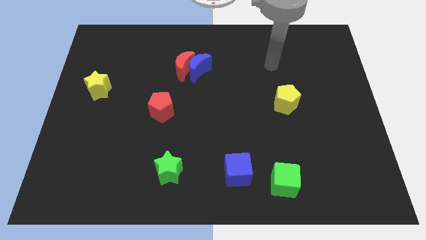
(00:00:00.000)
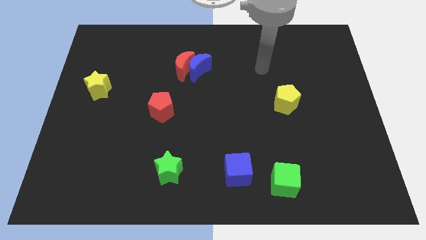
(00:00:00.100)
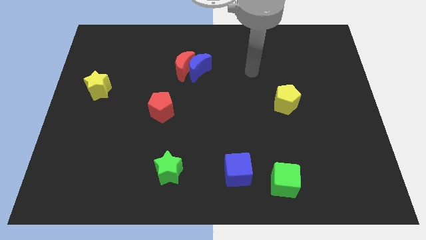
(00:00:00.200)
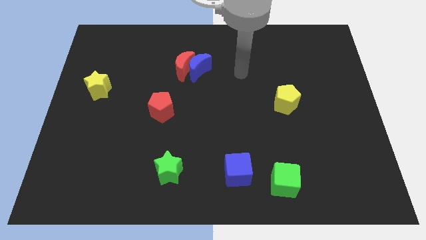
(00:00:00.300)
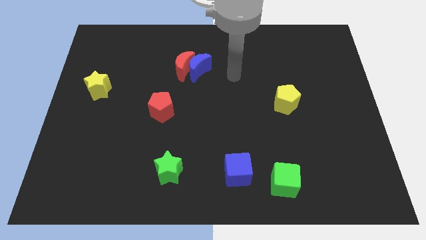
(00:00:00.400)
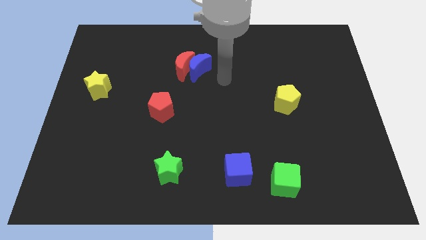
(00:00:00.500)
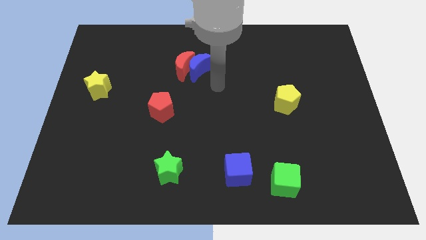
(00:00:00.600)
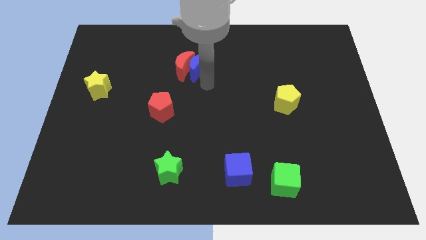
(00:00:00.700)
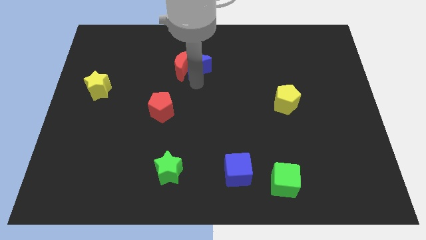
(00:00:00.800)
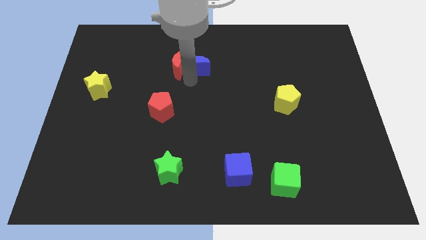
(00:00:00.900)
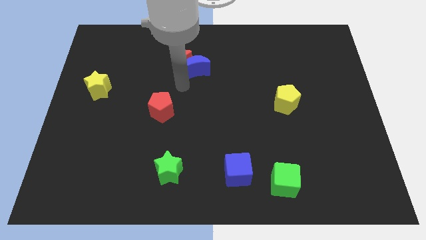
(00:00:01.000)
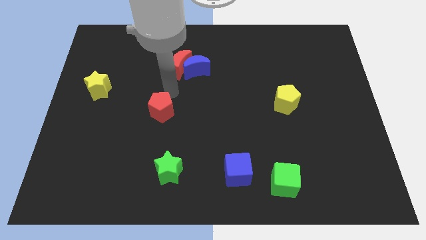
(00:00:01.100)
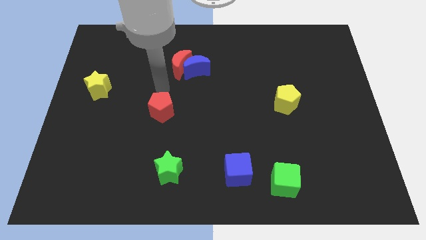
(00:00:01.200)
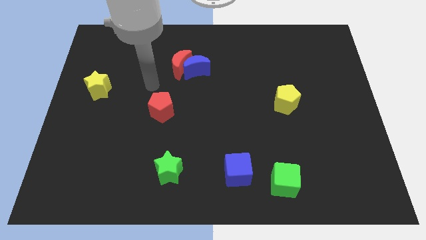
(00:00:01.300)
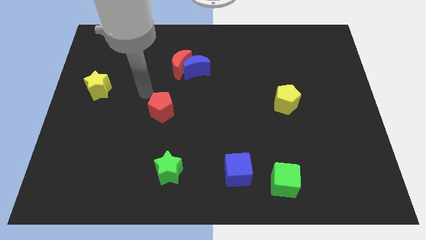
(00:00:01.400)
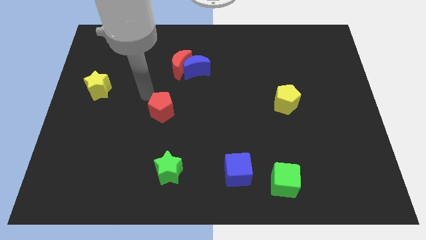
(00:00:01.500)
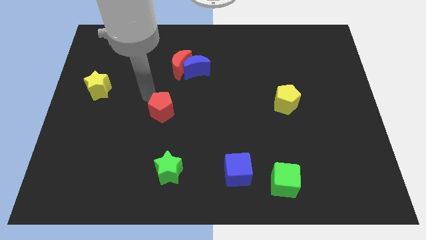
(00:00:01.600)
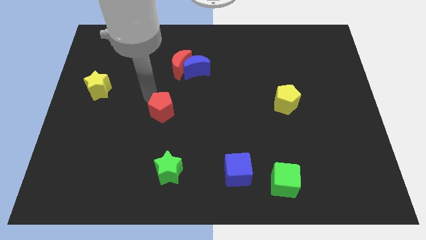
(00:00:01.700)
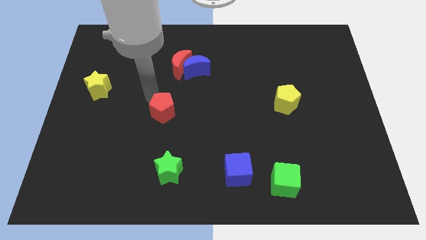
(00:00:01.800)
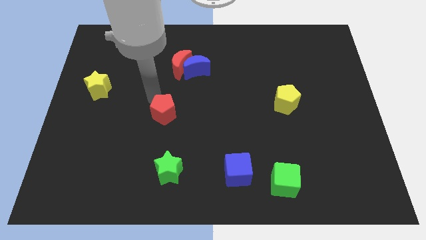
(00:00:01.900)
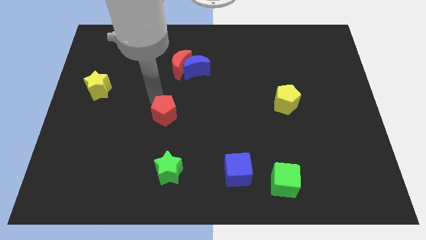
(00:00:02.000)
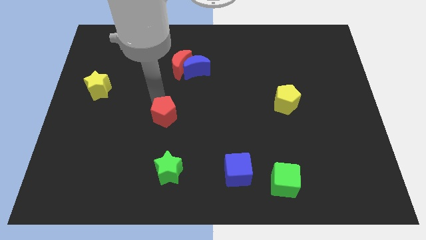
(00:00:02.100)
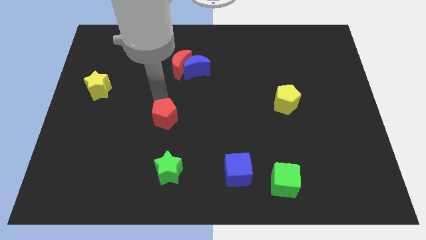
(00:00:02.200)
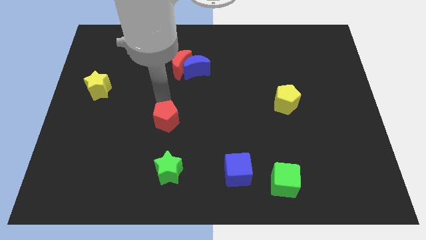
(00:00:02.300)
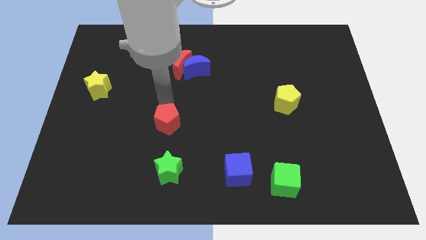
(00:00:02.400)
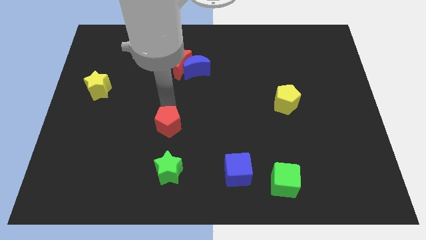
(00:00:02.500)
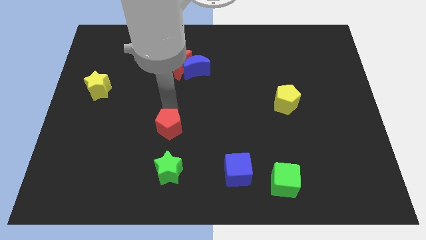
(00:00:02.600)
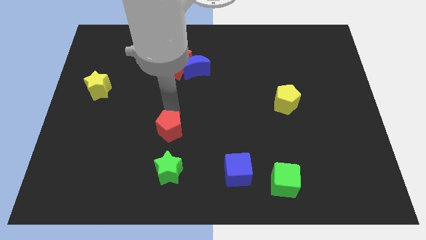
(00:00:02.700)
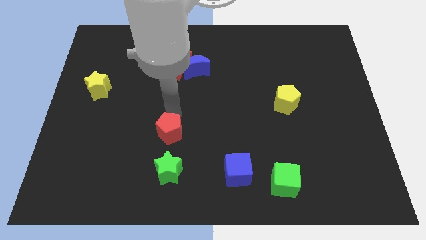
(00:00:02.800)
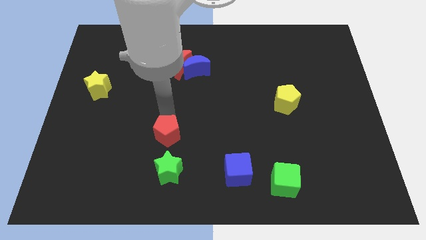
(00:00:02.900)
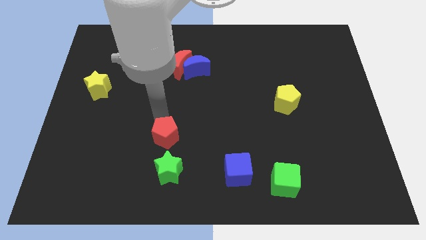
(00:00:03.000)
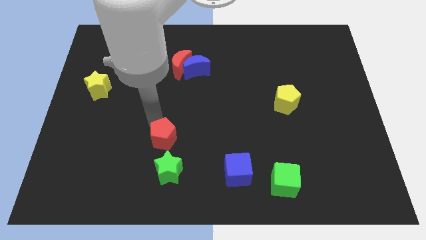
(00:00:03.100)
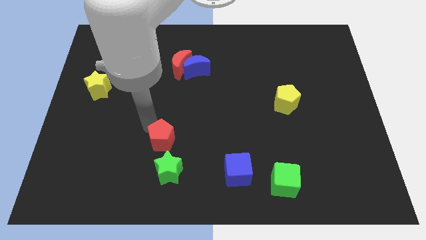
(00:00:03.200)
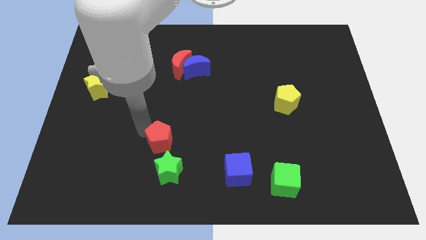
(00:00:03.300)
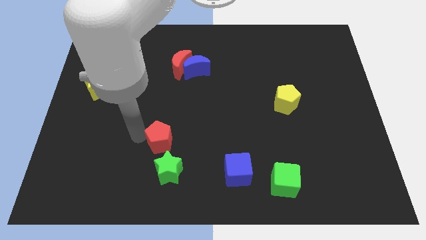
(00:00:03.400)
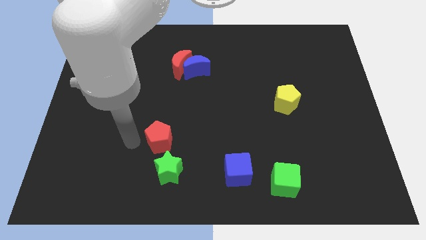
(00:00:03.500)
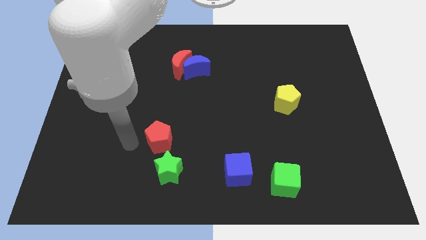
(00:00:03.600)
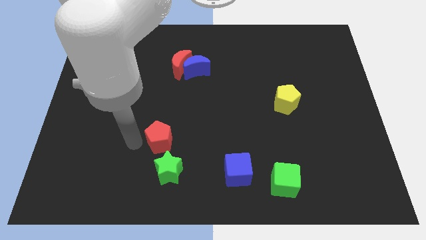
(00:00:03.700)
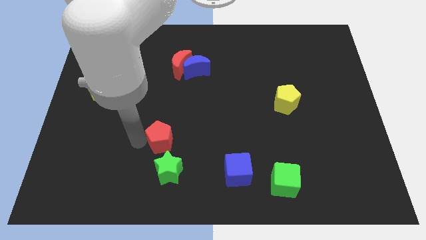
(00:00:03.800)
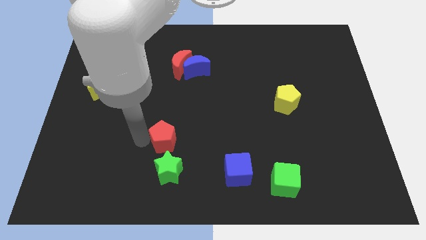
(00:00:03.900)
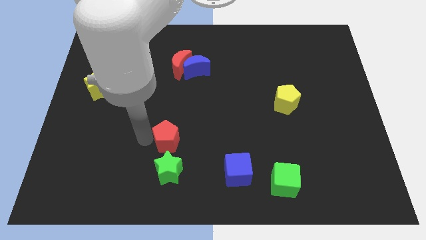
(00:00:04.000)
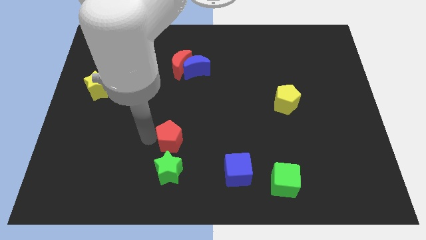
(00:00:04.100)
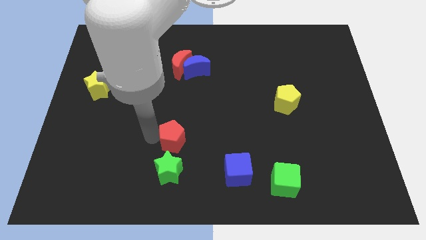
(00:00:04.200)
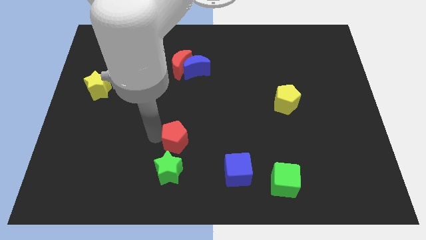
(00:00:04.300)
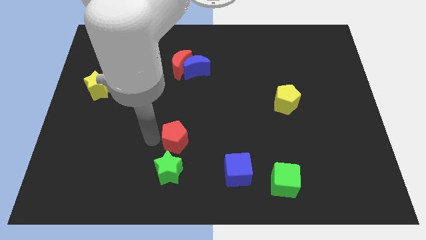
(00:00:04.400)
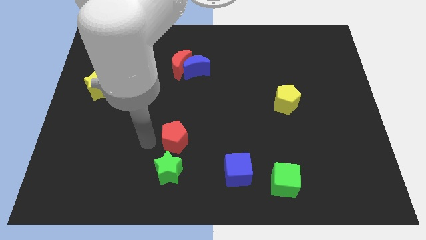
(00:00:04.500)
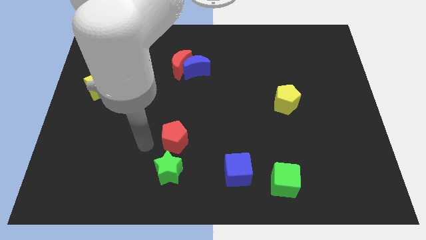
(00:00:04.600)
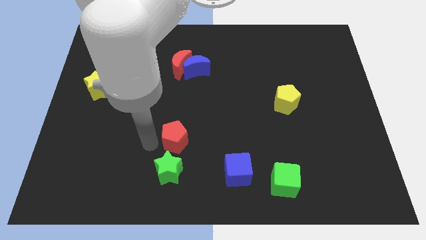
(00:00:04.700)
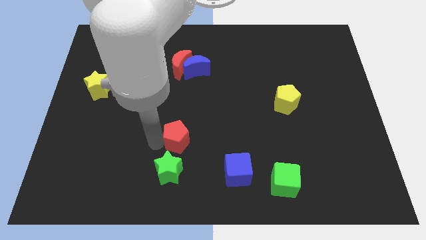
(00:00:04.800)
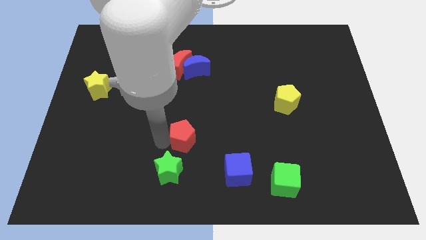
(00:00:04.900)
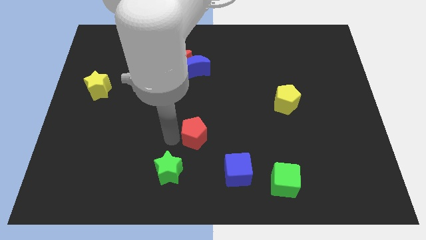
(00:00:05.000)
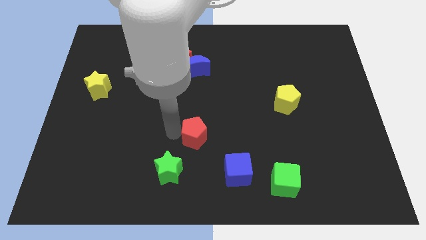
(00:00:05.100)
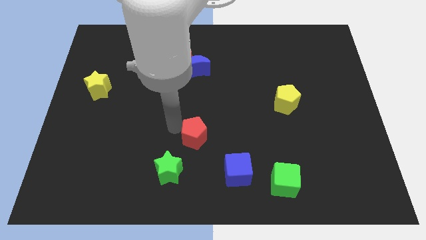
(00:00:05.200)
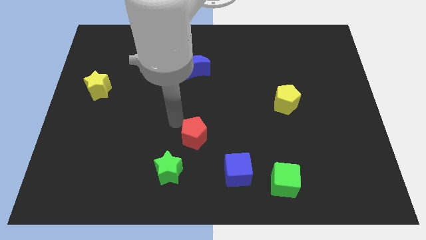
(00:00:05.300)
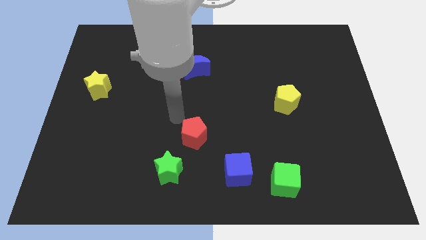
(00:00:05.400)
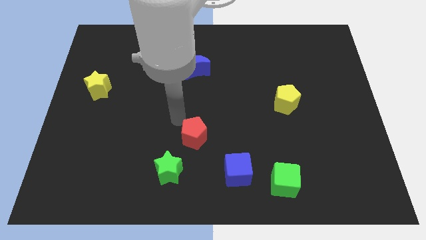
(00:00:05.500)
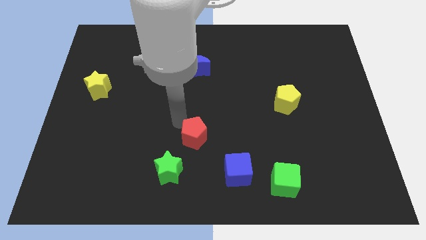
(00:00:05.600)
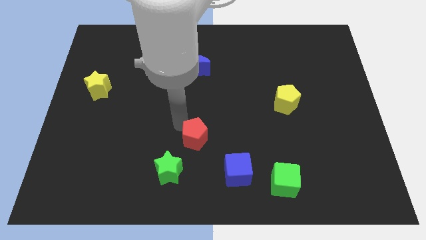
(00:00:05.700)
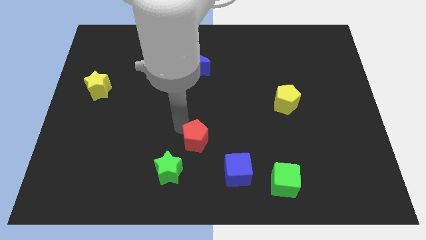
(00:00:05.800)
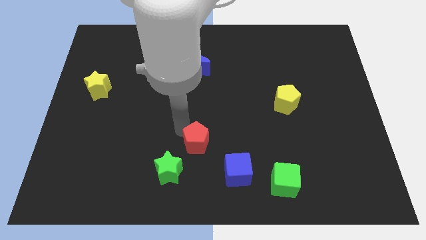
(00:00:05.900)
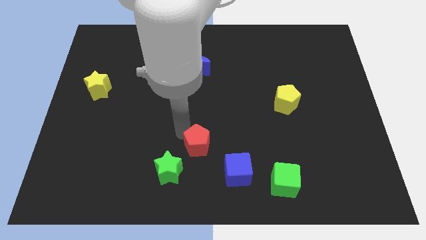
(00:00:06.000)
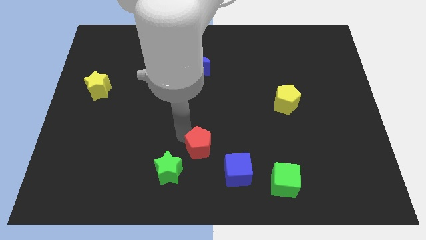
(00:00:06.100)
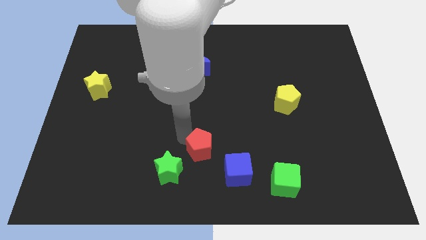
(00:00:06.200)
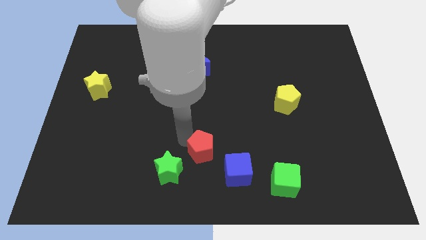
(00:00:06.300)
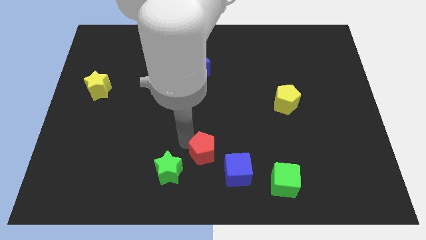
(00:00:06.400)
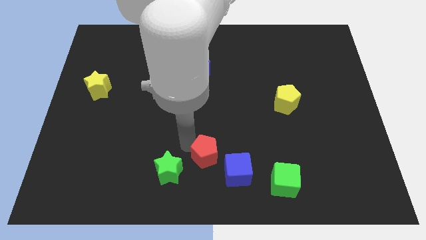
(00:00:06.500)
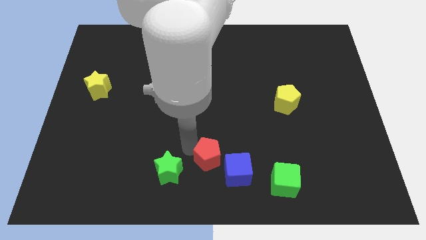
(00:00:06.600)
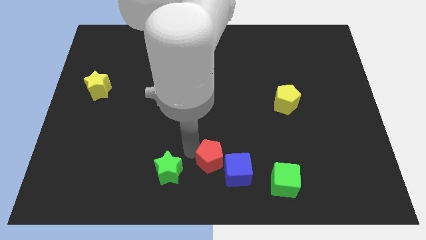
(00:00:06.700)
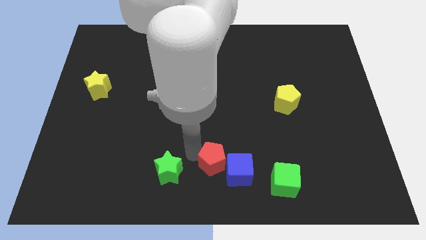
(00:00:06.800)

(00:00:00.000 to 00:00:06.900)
push the red pentagon close to the blue cube
